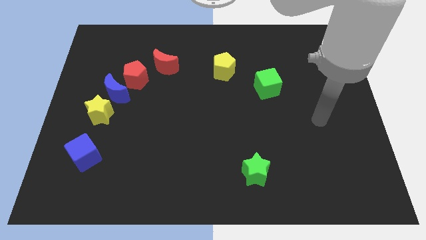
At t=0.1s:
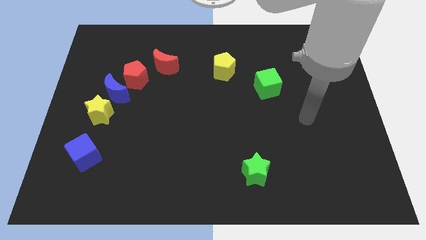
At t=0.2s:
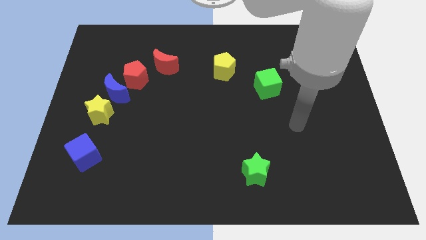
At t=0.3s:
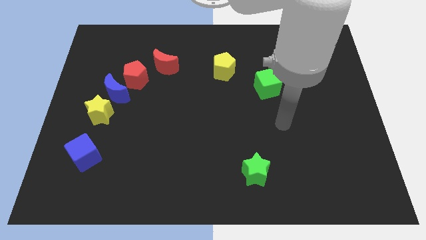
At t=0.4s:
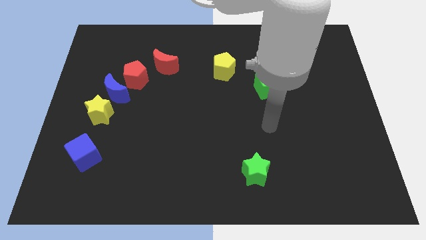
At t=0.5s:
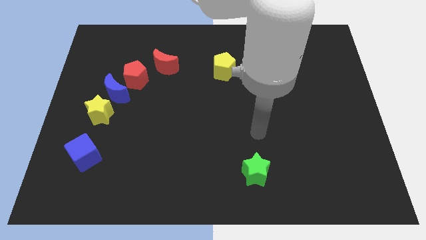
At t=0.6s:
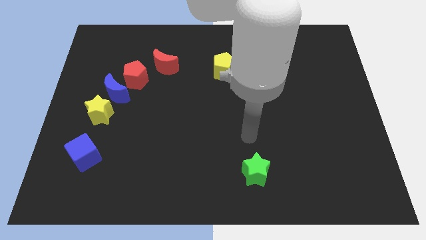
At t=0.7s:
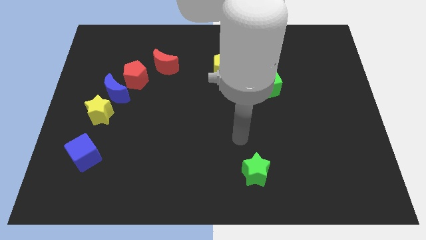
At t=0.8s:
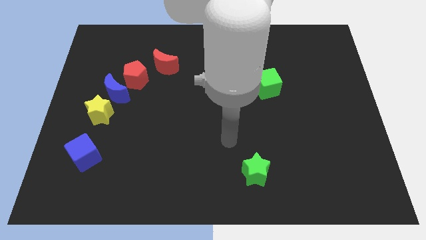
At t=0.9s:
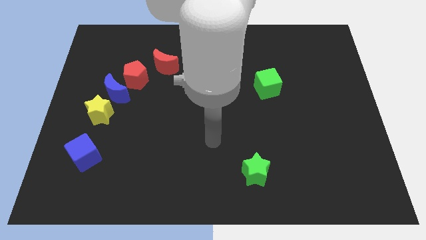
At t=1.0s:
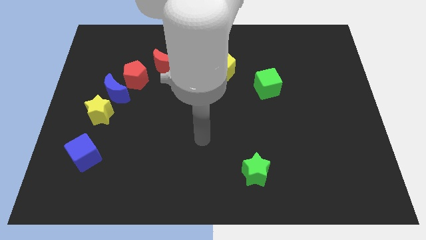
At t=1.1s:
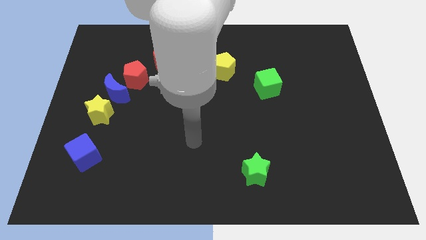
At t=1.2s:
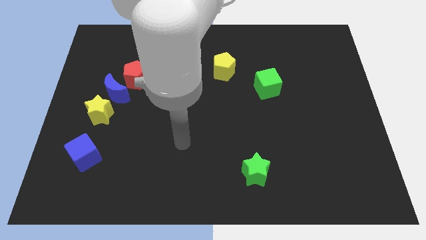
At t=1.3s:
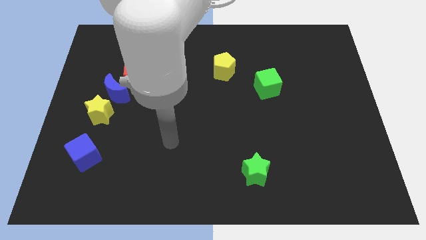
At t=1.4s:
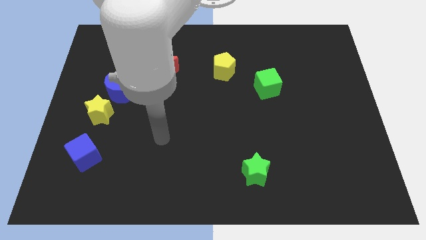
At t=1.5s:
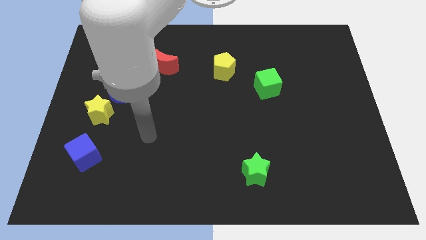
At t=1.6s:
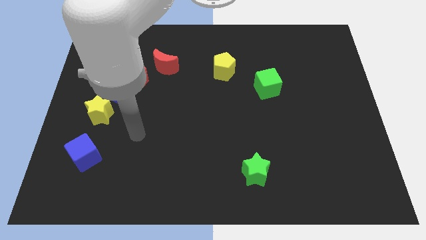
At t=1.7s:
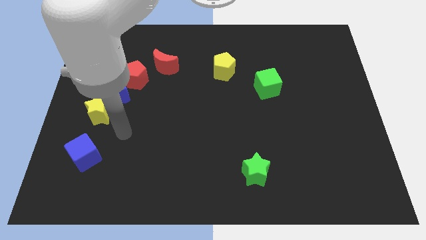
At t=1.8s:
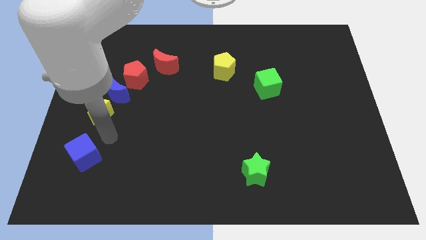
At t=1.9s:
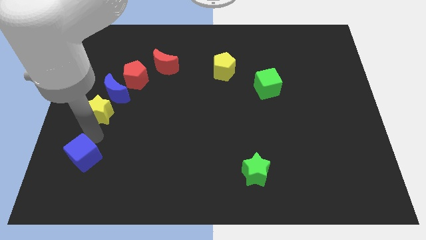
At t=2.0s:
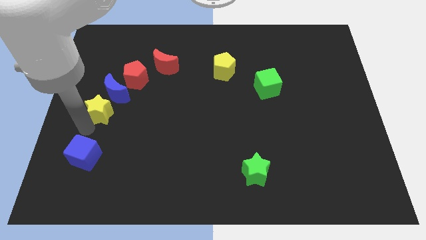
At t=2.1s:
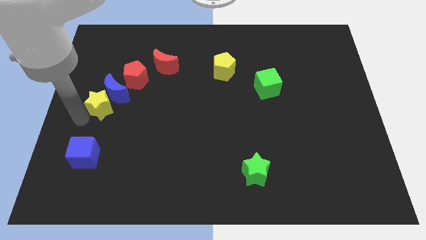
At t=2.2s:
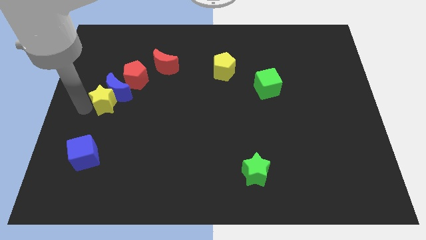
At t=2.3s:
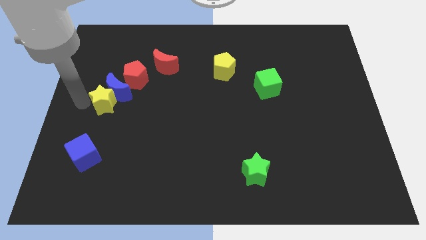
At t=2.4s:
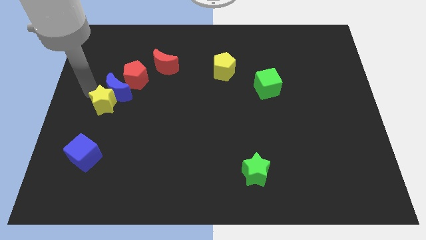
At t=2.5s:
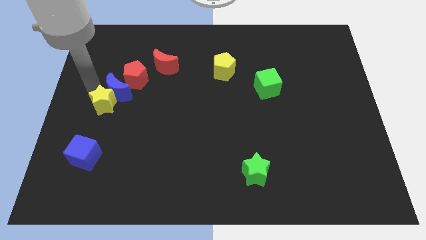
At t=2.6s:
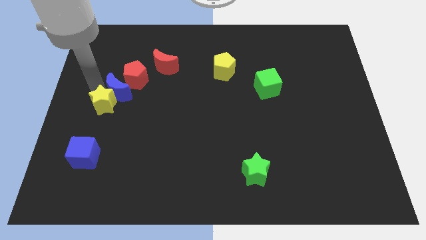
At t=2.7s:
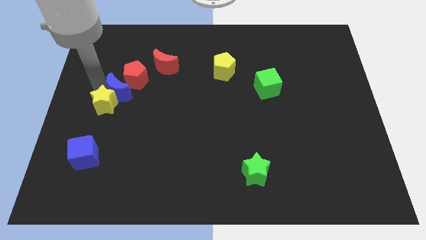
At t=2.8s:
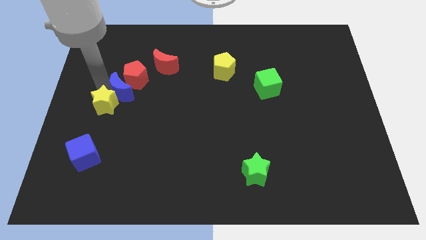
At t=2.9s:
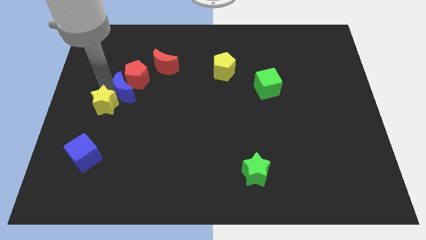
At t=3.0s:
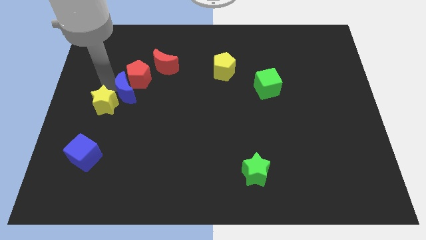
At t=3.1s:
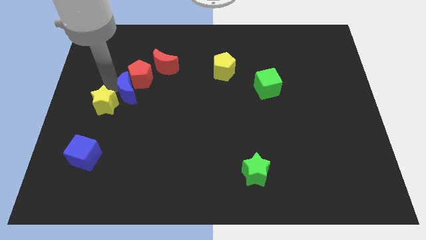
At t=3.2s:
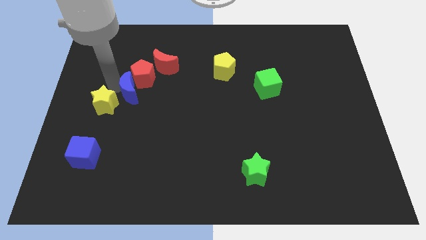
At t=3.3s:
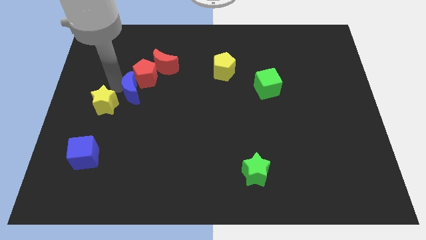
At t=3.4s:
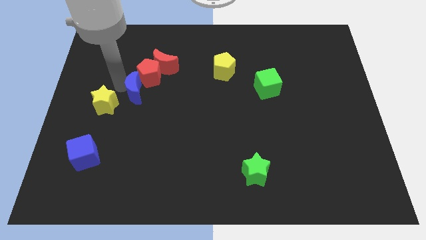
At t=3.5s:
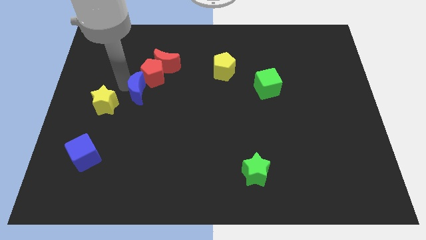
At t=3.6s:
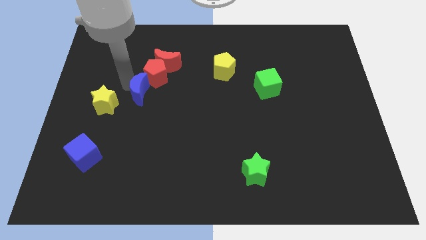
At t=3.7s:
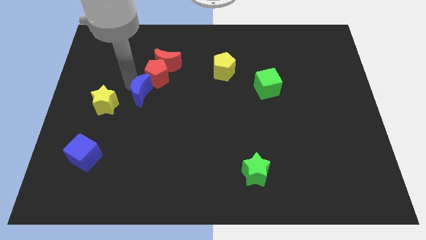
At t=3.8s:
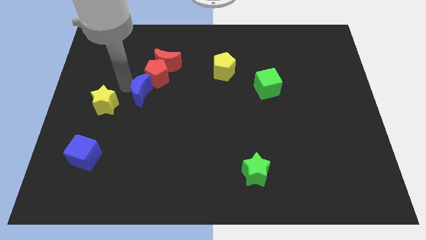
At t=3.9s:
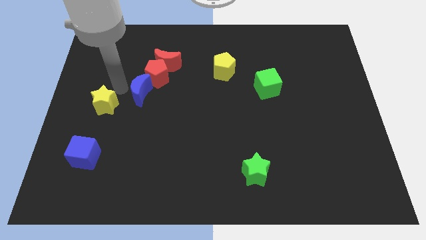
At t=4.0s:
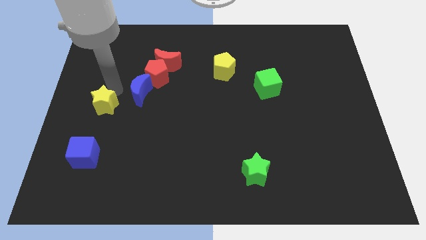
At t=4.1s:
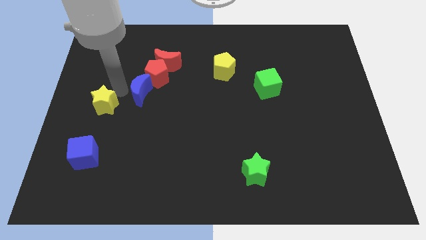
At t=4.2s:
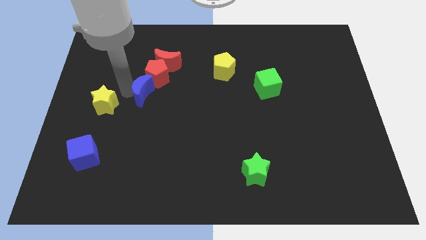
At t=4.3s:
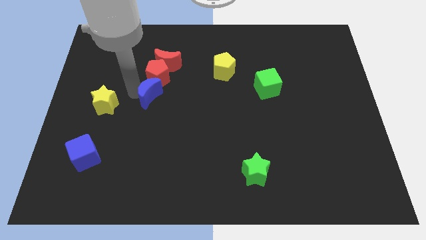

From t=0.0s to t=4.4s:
slightly slide the blue moon right

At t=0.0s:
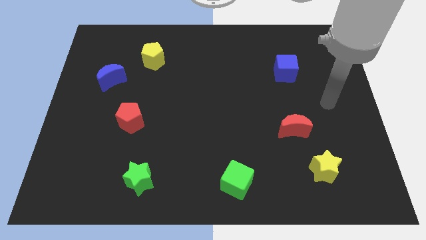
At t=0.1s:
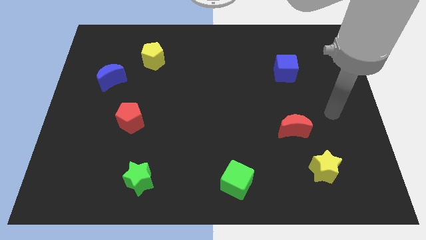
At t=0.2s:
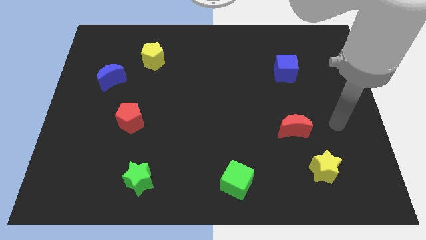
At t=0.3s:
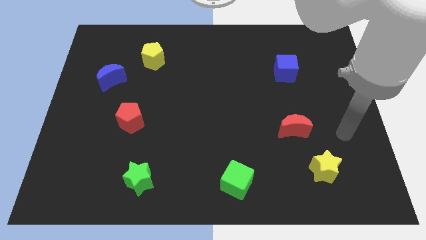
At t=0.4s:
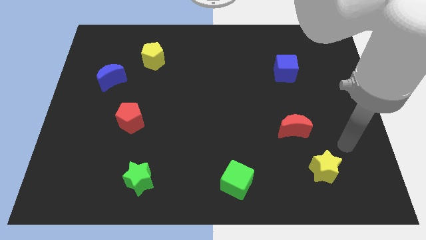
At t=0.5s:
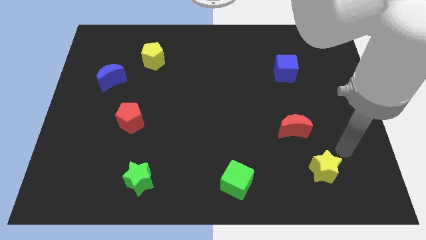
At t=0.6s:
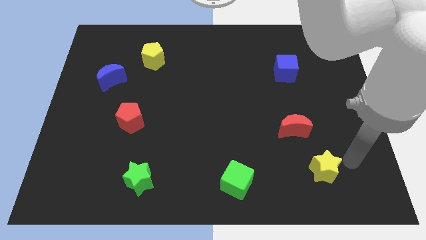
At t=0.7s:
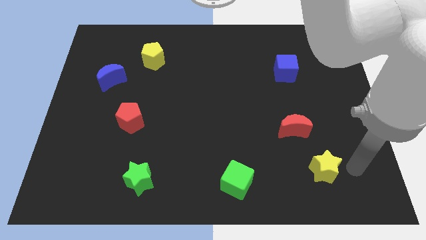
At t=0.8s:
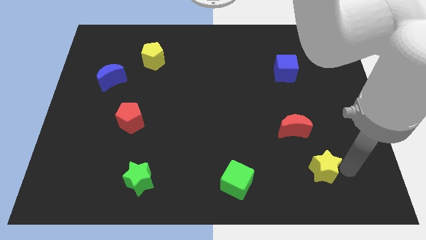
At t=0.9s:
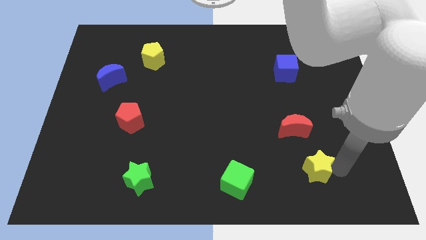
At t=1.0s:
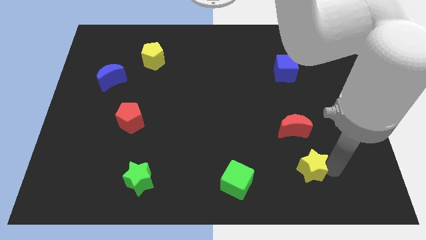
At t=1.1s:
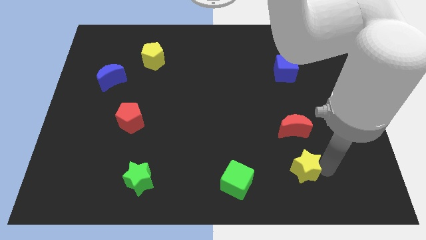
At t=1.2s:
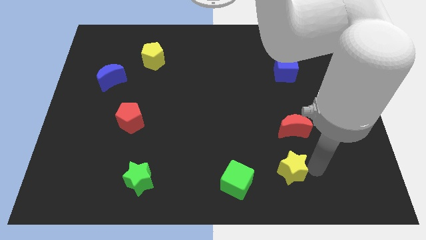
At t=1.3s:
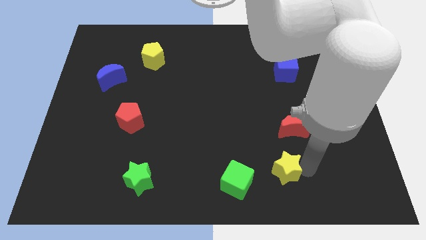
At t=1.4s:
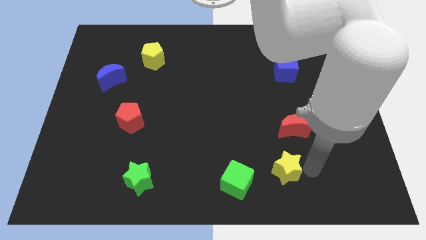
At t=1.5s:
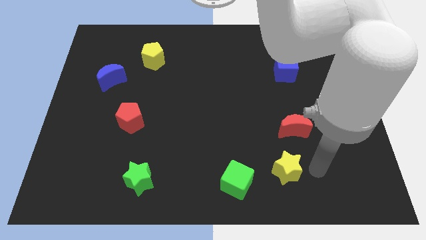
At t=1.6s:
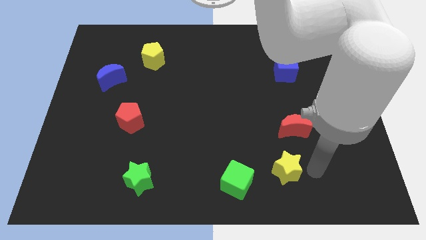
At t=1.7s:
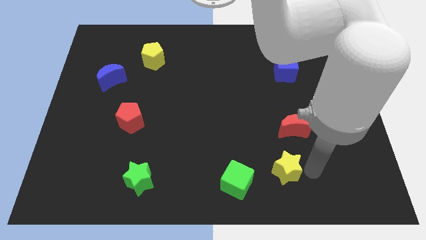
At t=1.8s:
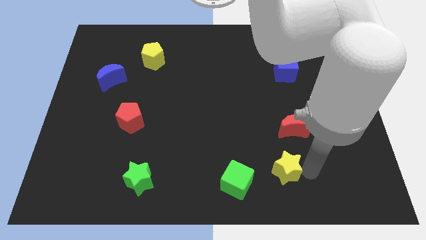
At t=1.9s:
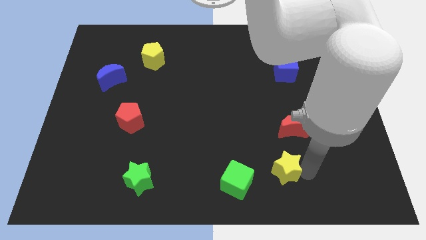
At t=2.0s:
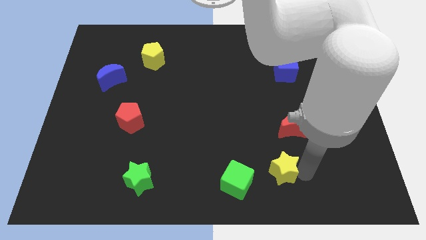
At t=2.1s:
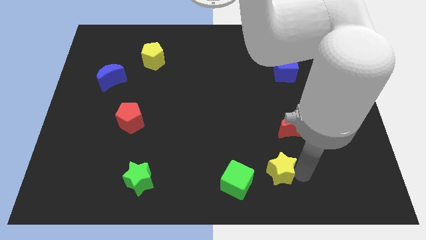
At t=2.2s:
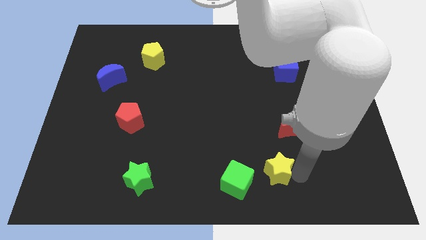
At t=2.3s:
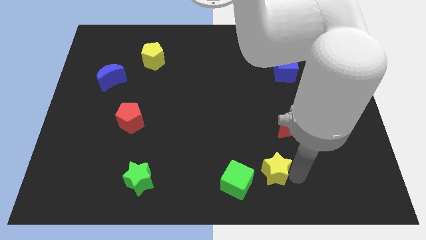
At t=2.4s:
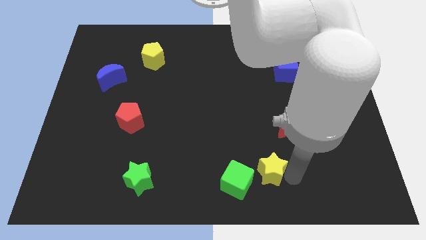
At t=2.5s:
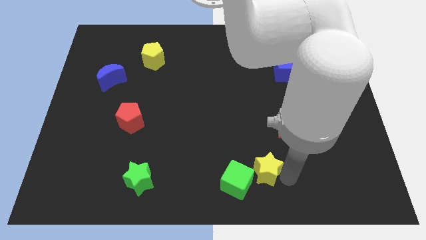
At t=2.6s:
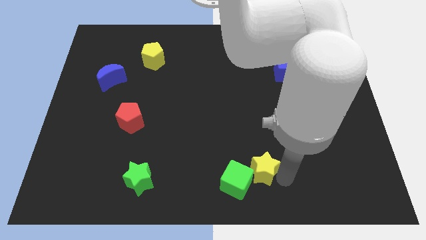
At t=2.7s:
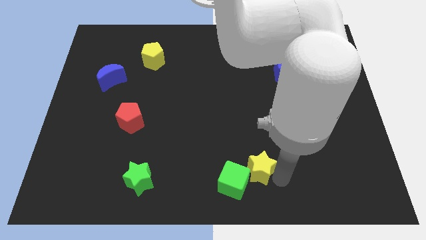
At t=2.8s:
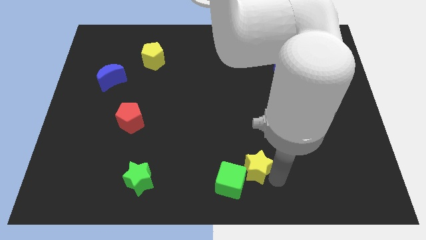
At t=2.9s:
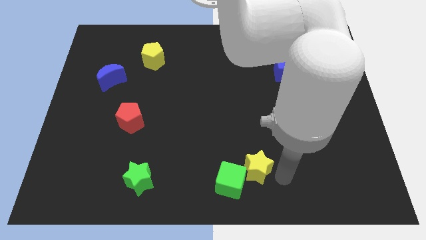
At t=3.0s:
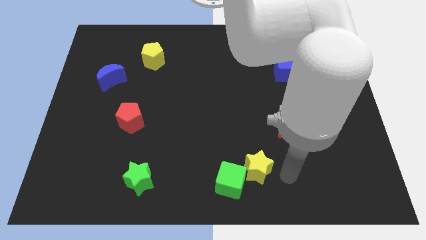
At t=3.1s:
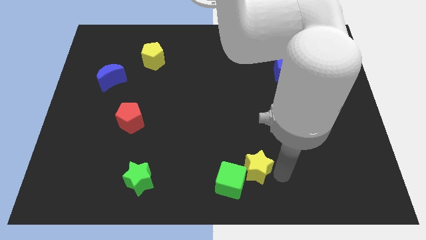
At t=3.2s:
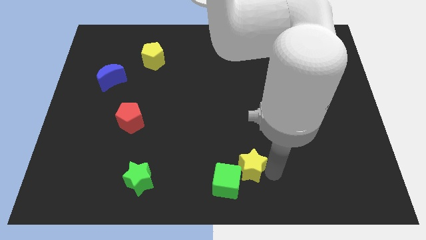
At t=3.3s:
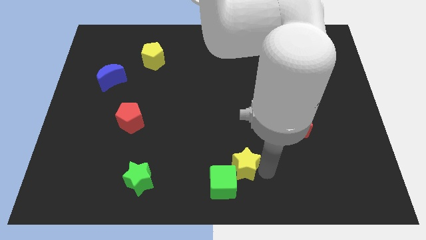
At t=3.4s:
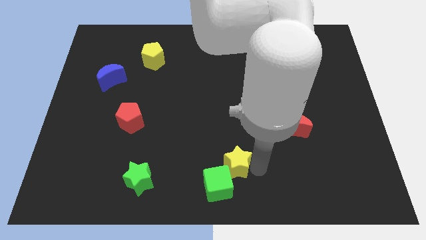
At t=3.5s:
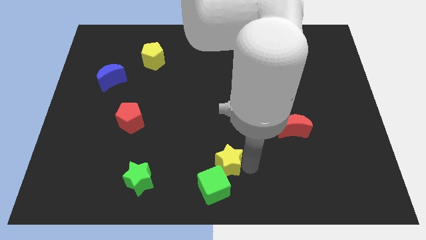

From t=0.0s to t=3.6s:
move the yellow star to the left
